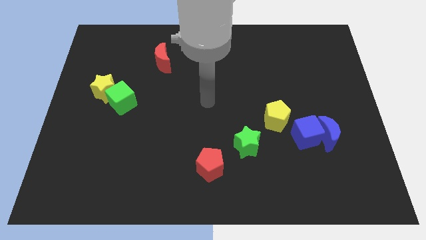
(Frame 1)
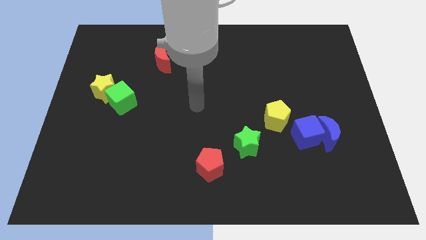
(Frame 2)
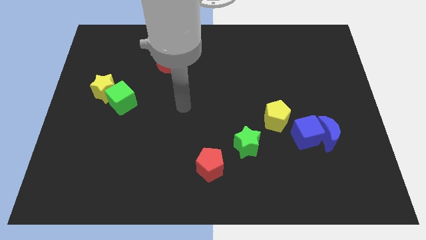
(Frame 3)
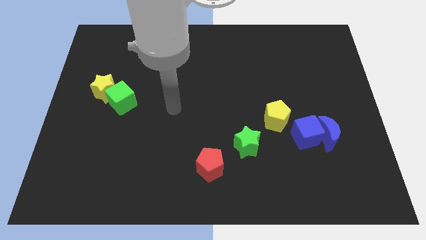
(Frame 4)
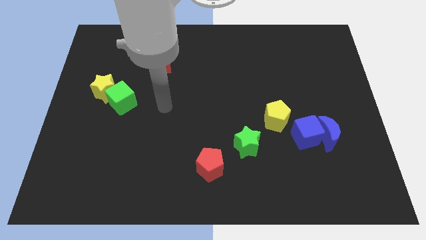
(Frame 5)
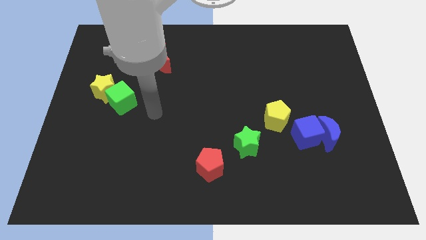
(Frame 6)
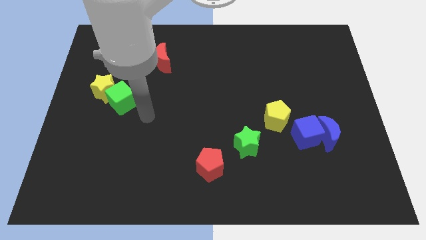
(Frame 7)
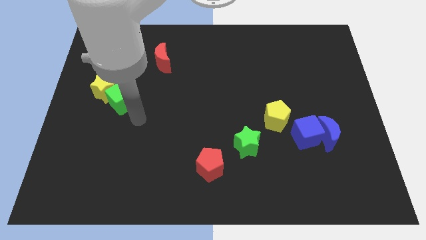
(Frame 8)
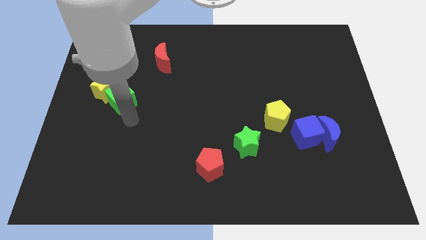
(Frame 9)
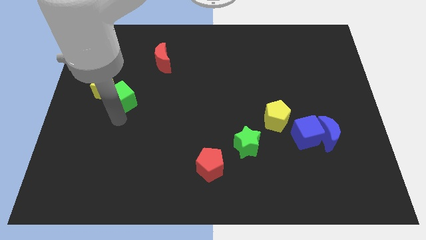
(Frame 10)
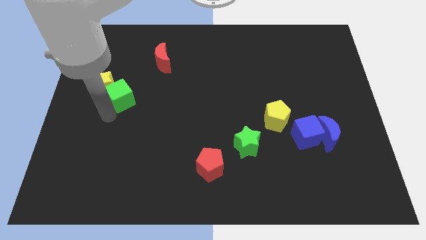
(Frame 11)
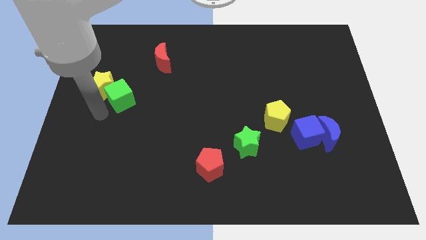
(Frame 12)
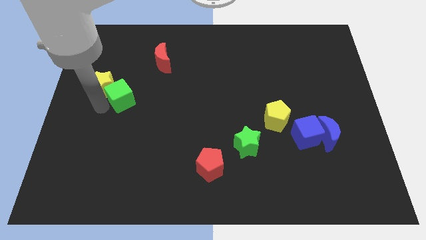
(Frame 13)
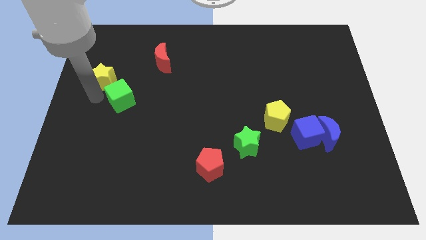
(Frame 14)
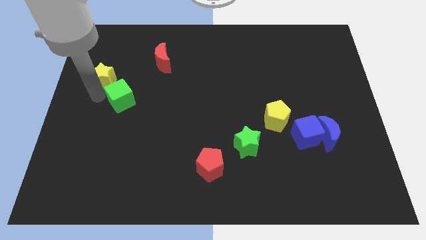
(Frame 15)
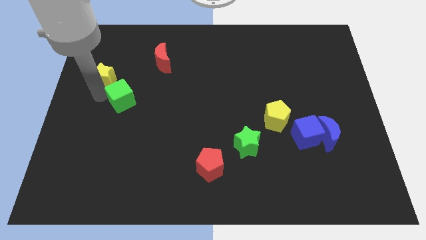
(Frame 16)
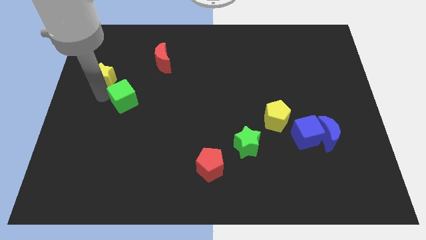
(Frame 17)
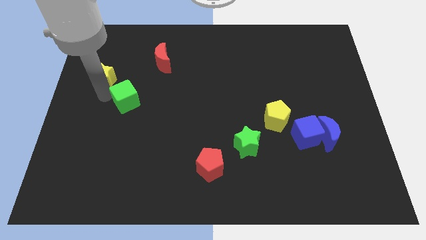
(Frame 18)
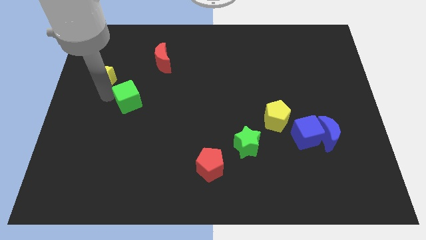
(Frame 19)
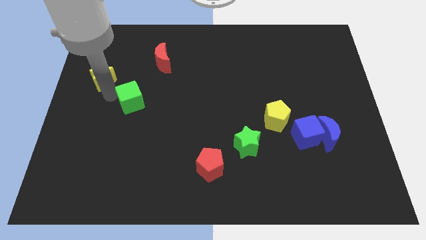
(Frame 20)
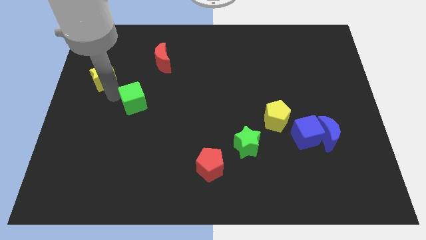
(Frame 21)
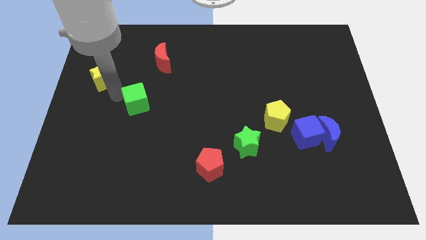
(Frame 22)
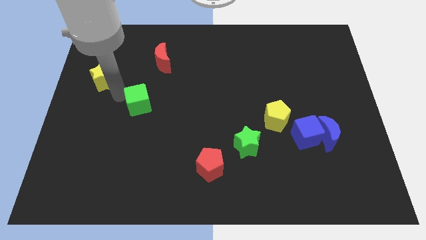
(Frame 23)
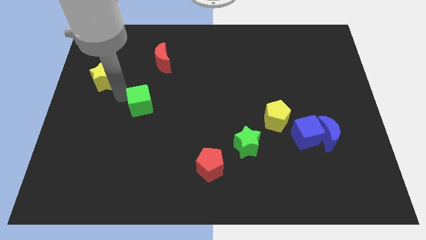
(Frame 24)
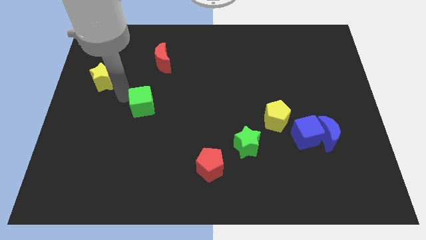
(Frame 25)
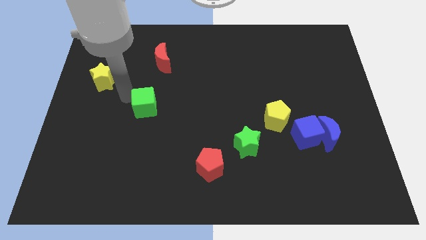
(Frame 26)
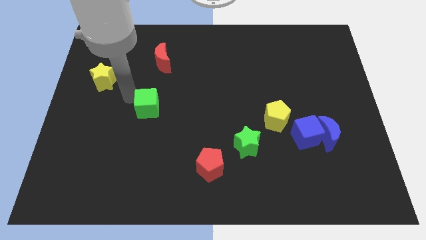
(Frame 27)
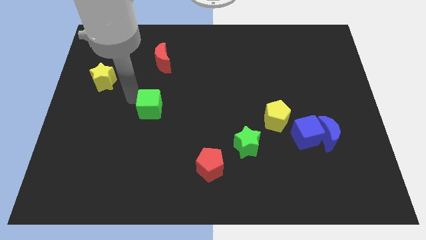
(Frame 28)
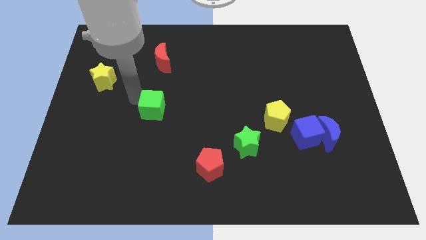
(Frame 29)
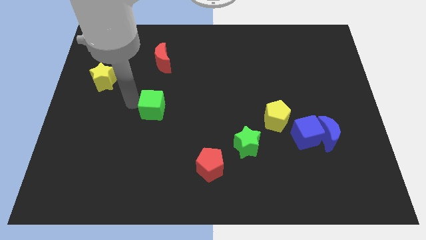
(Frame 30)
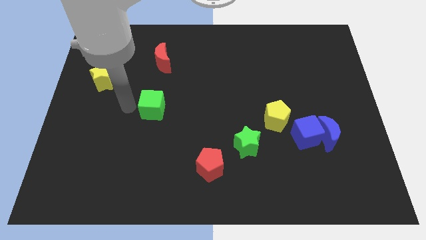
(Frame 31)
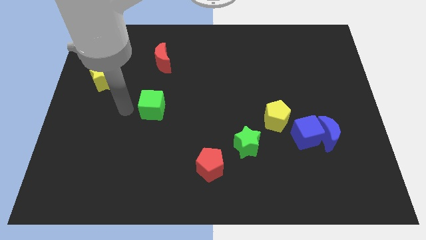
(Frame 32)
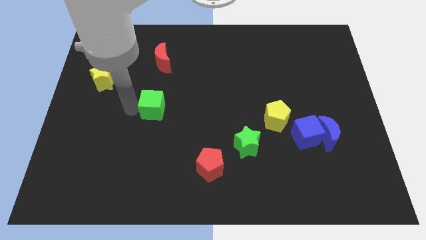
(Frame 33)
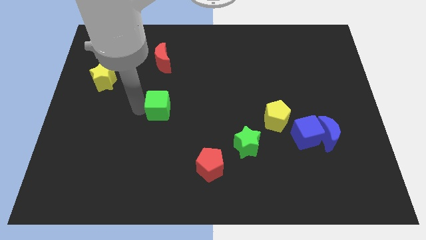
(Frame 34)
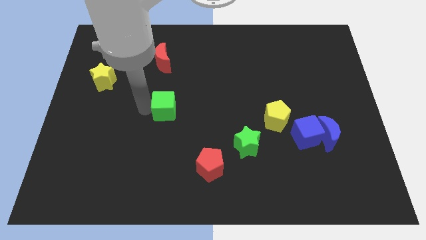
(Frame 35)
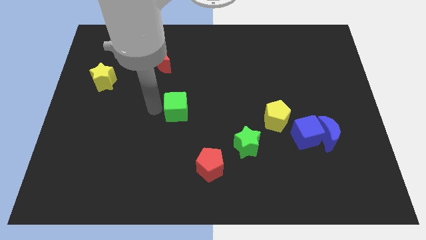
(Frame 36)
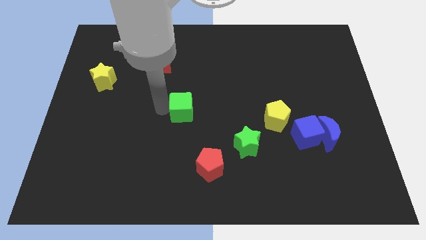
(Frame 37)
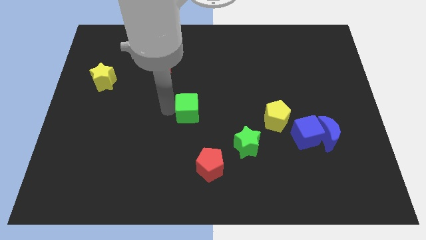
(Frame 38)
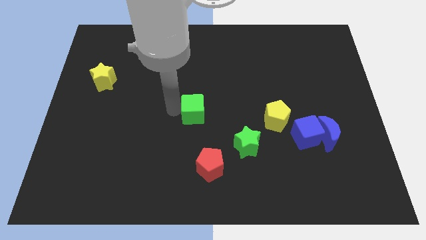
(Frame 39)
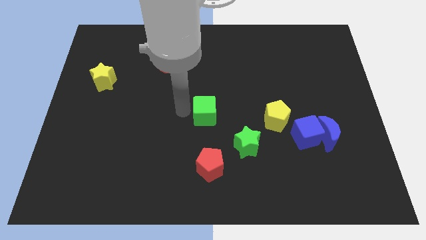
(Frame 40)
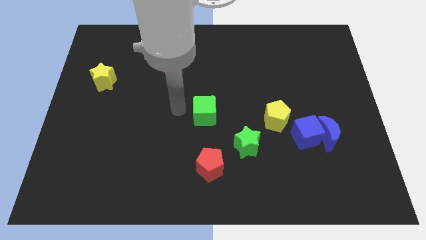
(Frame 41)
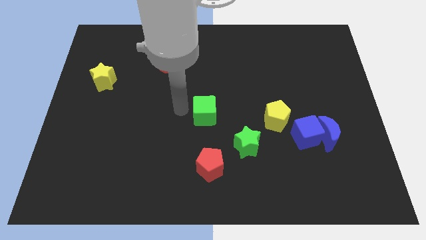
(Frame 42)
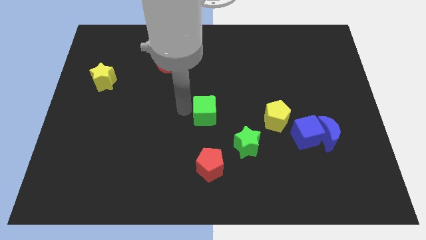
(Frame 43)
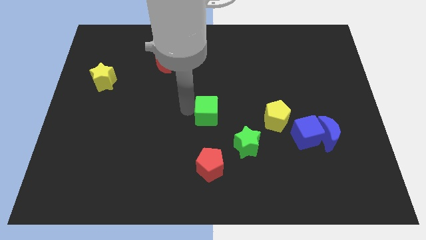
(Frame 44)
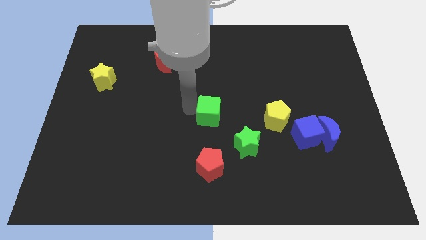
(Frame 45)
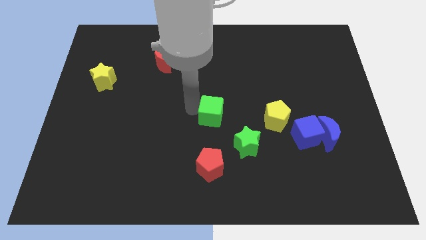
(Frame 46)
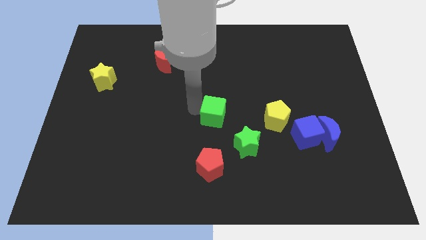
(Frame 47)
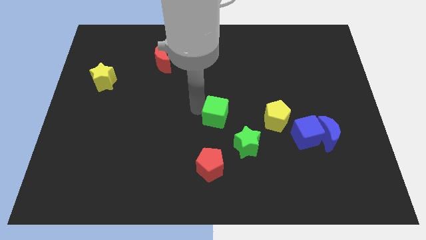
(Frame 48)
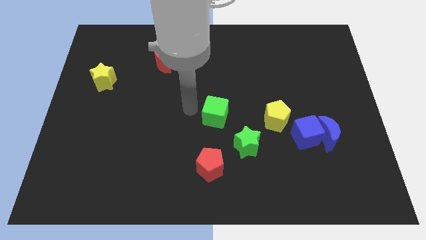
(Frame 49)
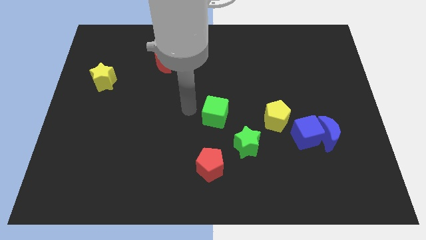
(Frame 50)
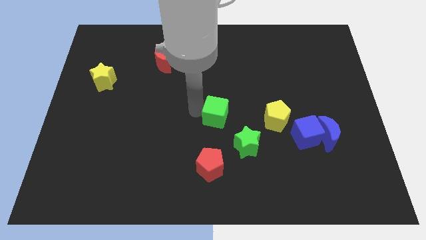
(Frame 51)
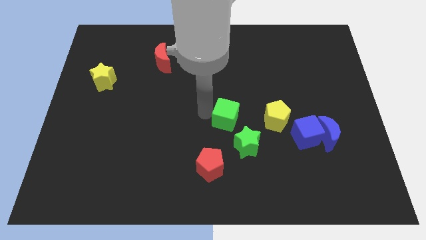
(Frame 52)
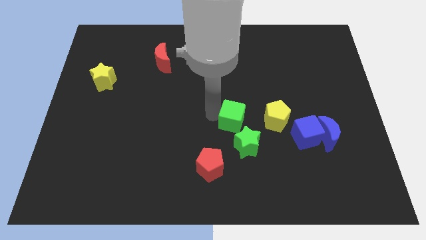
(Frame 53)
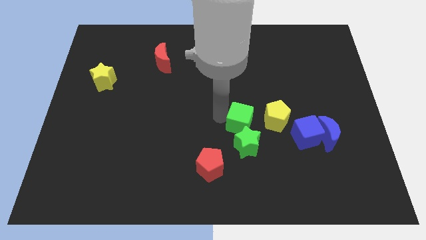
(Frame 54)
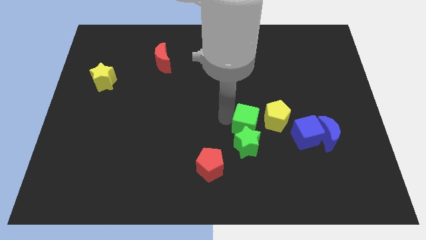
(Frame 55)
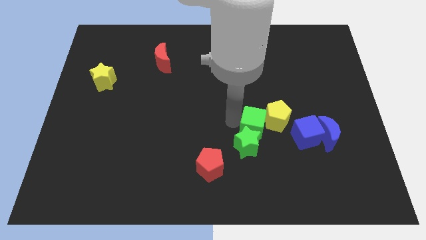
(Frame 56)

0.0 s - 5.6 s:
push the green cube towards the yellow pentagon

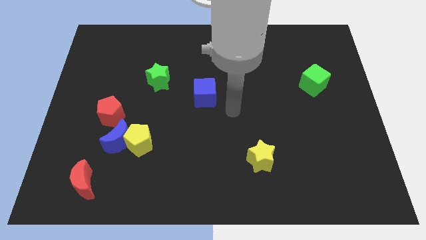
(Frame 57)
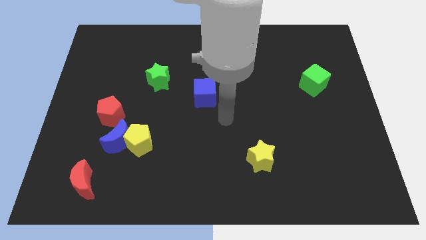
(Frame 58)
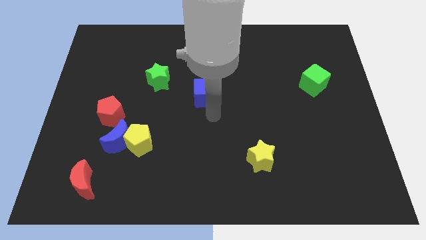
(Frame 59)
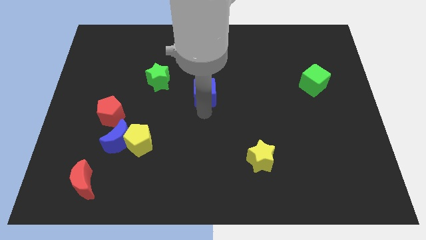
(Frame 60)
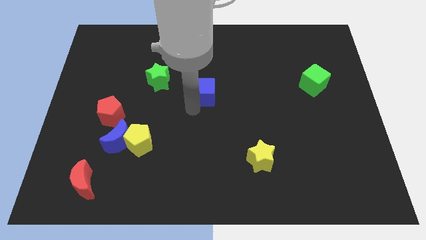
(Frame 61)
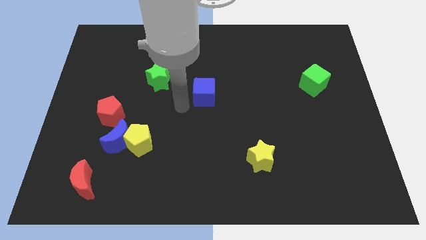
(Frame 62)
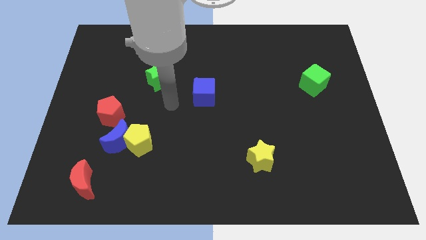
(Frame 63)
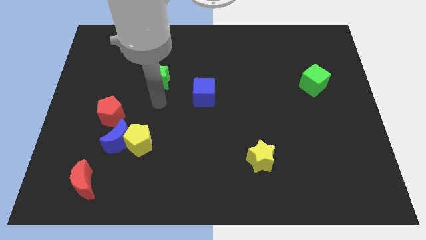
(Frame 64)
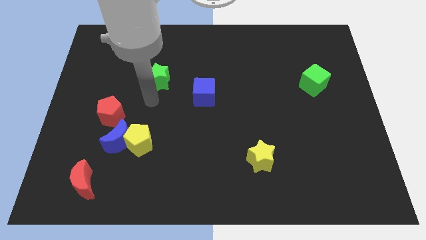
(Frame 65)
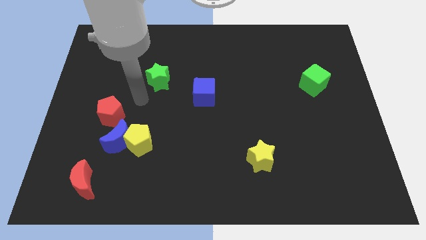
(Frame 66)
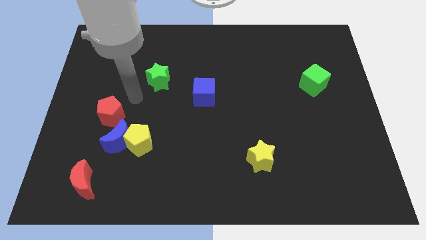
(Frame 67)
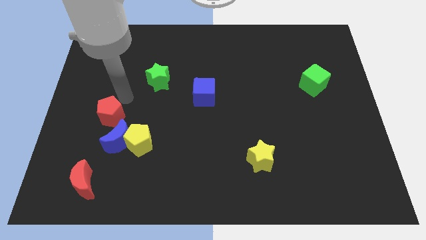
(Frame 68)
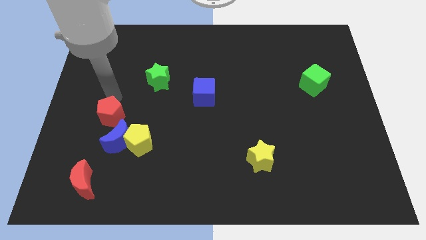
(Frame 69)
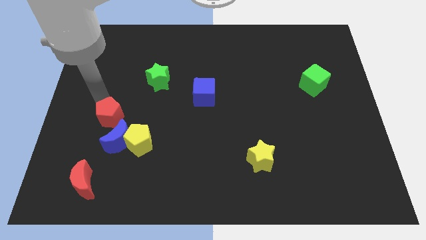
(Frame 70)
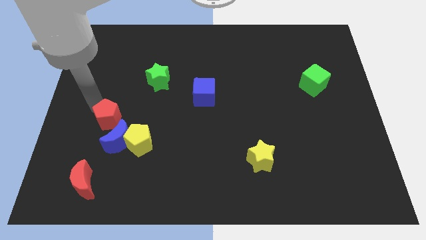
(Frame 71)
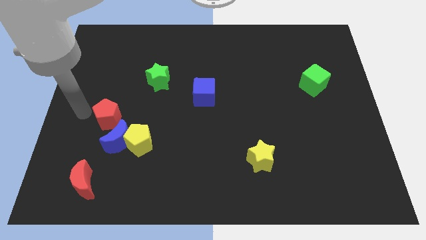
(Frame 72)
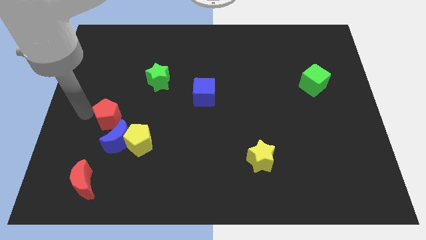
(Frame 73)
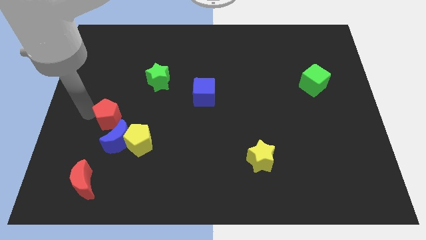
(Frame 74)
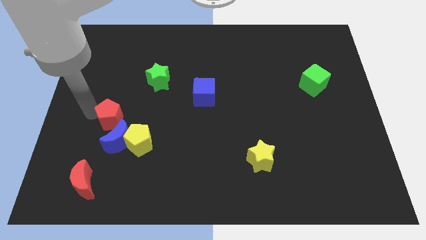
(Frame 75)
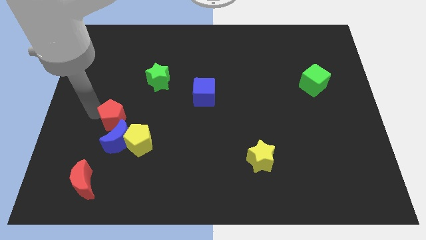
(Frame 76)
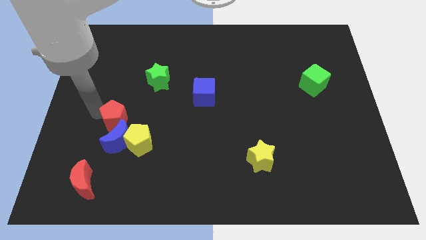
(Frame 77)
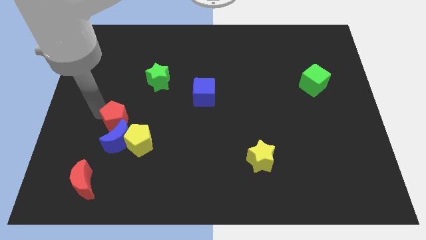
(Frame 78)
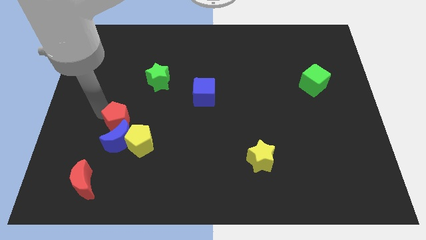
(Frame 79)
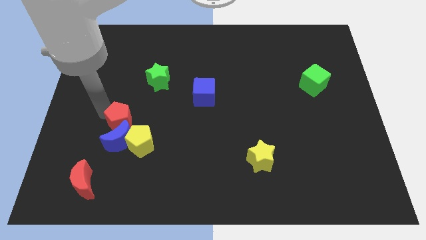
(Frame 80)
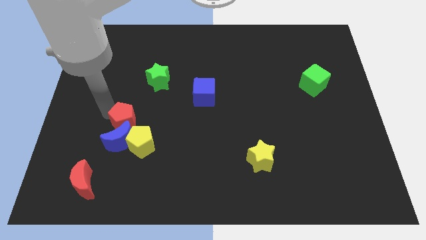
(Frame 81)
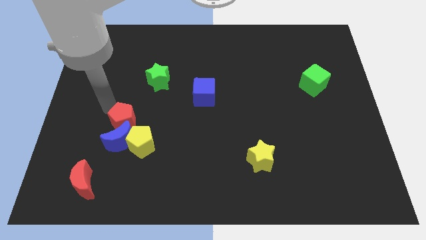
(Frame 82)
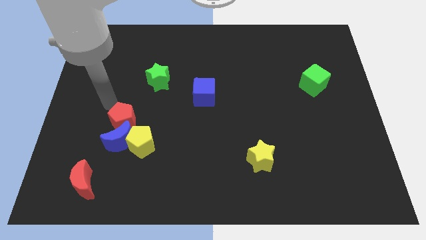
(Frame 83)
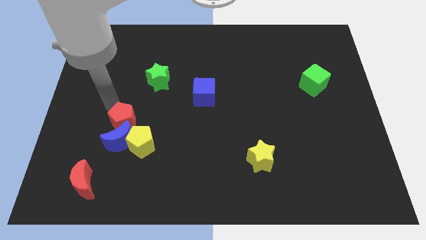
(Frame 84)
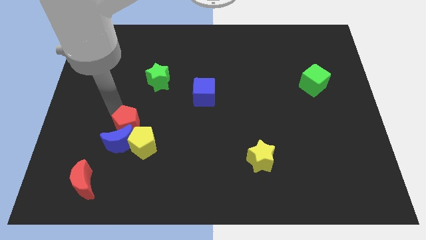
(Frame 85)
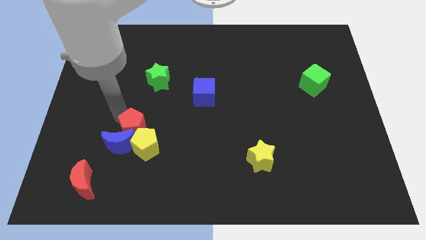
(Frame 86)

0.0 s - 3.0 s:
slide the red pentagon to the yellow pentagon
